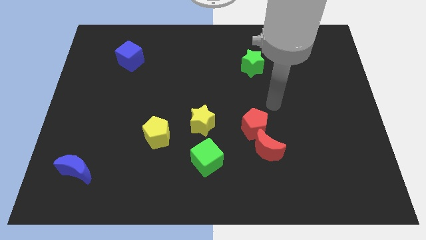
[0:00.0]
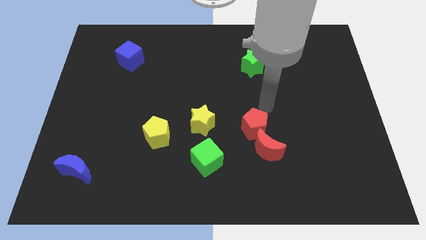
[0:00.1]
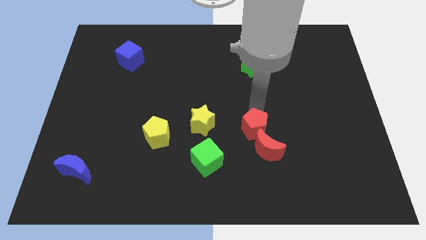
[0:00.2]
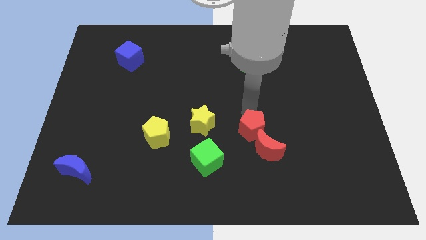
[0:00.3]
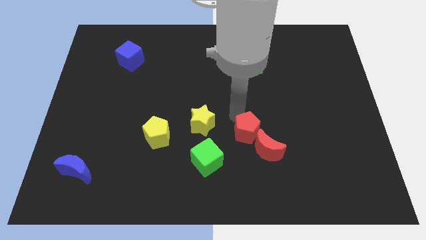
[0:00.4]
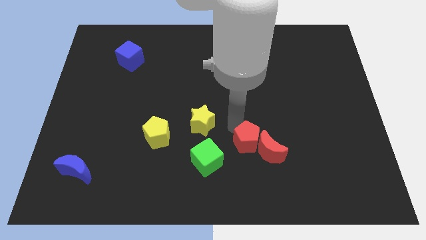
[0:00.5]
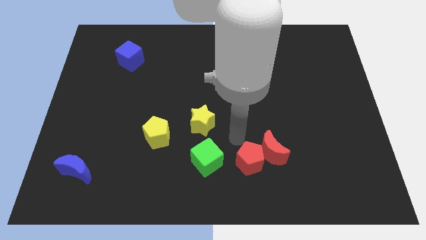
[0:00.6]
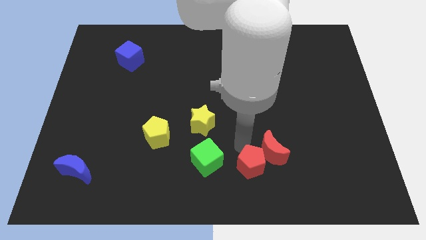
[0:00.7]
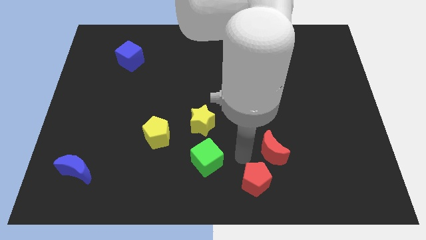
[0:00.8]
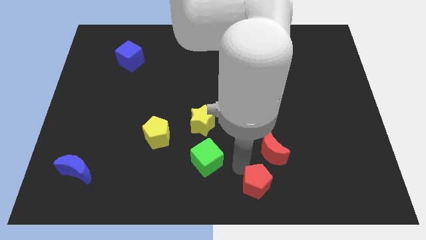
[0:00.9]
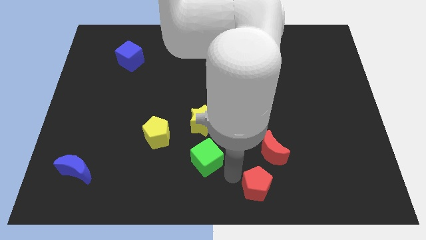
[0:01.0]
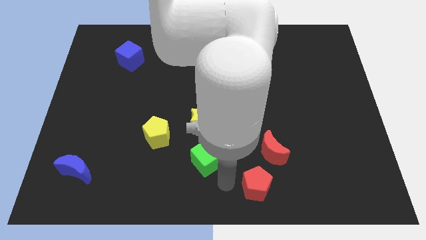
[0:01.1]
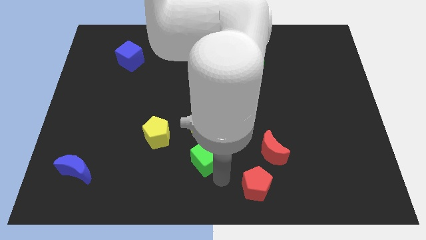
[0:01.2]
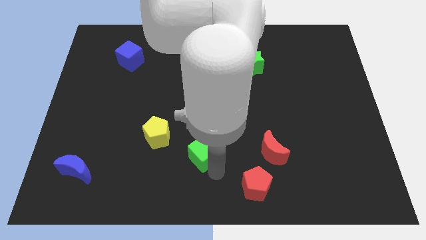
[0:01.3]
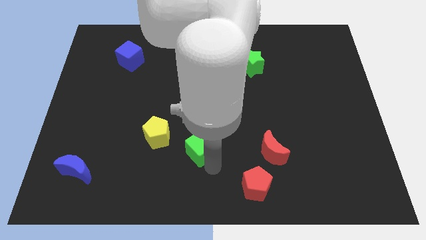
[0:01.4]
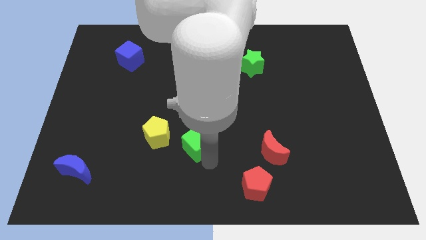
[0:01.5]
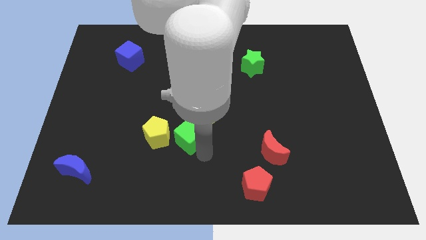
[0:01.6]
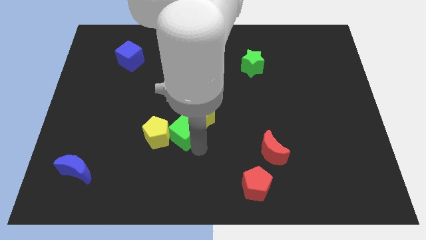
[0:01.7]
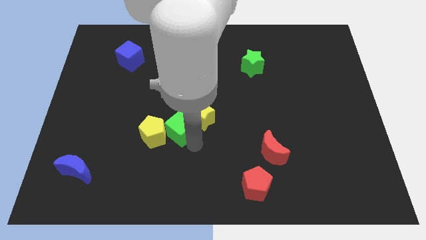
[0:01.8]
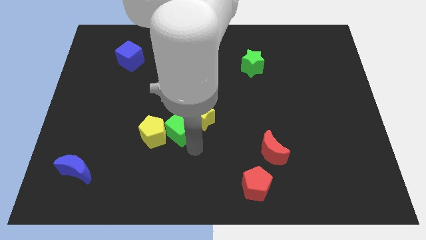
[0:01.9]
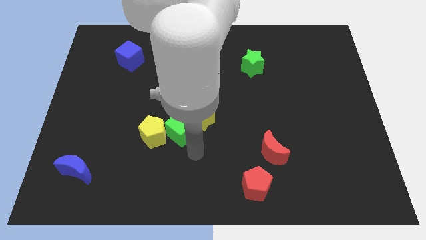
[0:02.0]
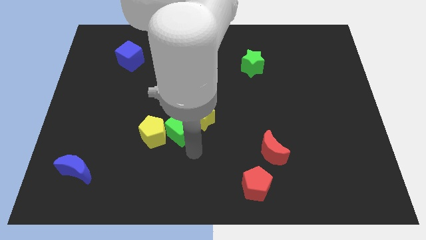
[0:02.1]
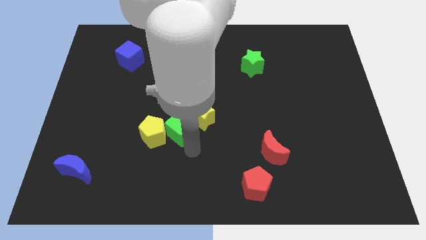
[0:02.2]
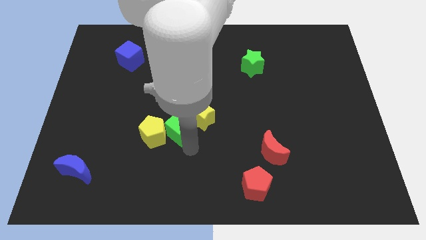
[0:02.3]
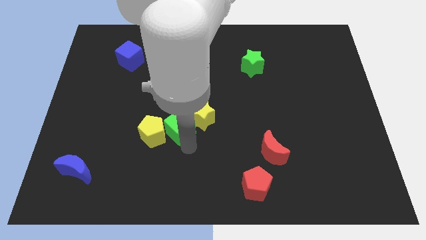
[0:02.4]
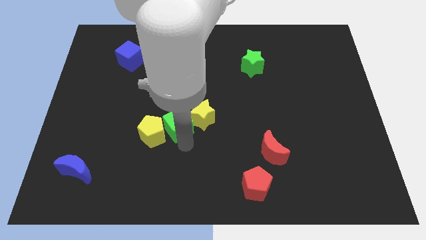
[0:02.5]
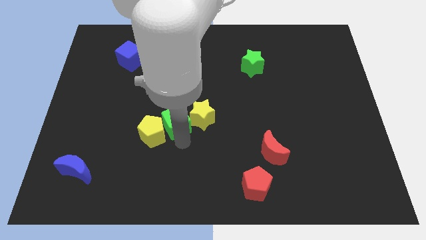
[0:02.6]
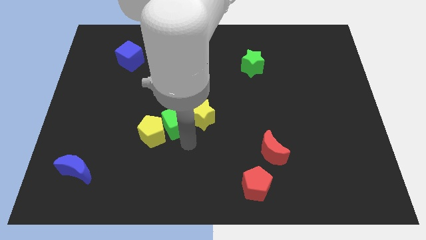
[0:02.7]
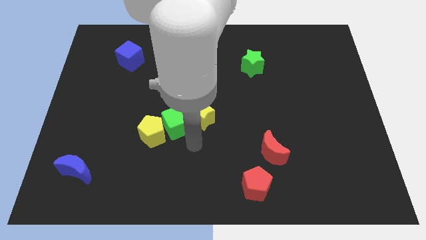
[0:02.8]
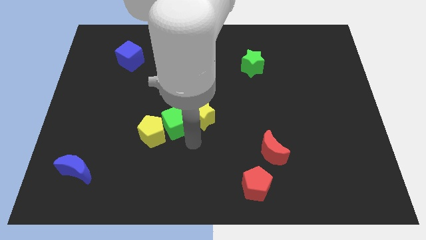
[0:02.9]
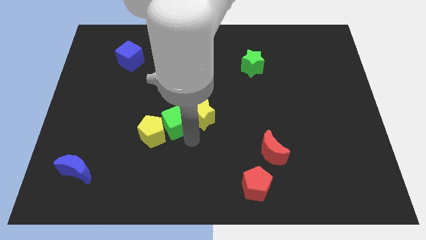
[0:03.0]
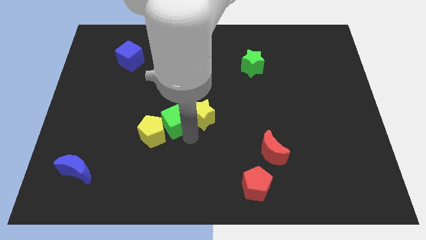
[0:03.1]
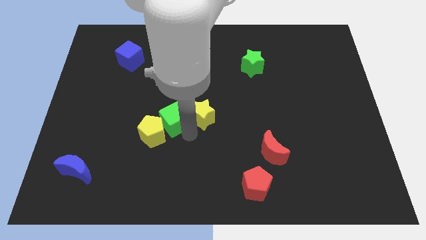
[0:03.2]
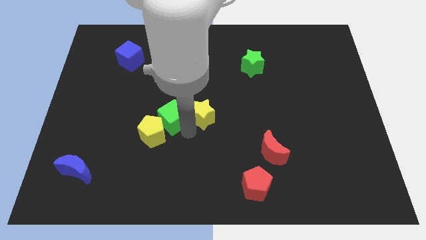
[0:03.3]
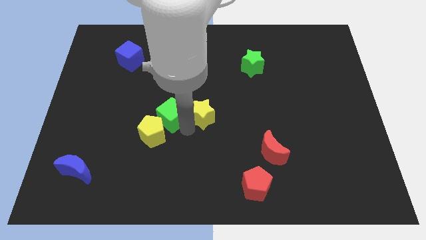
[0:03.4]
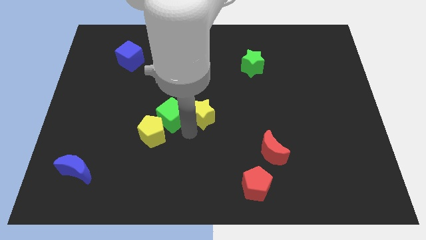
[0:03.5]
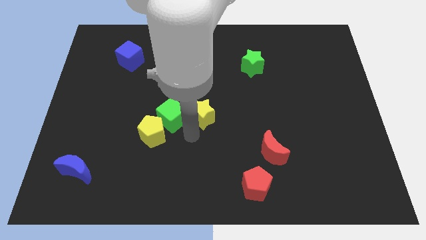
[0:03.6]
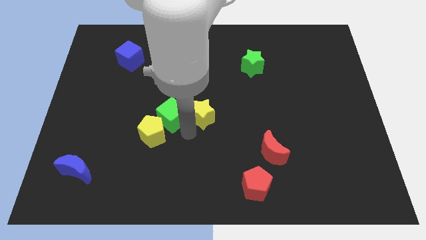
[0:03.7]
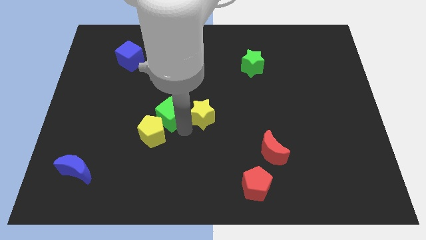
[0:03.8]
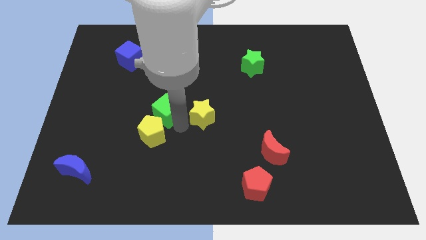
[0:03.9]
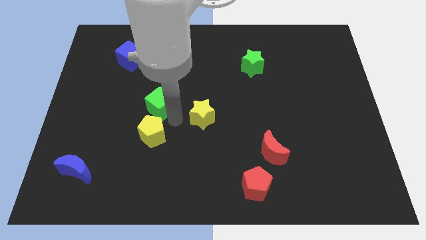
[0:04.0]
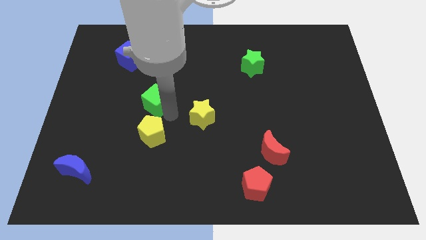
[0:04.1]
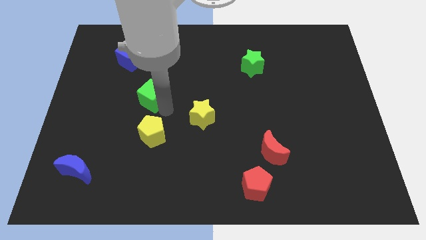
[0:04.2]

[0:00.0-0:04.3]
push the green cube up and left

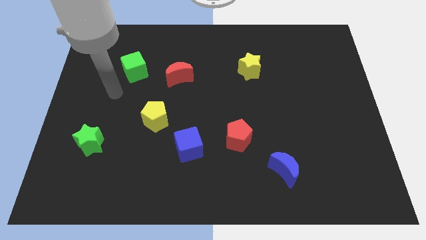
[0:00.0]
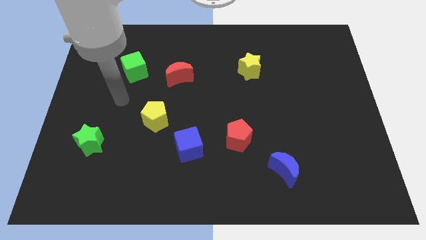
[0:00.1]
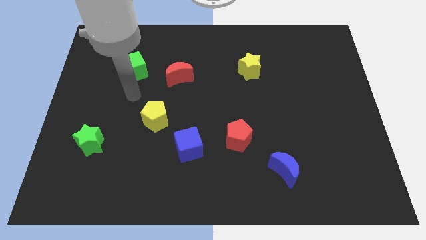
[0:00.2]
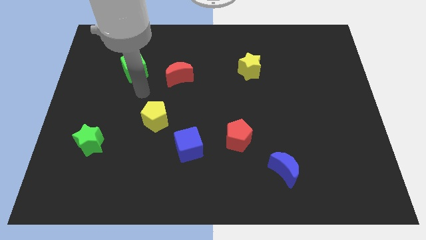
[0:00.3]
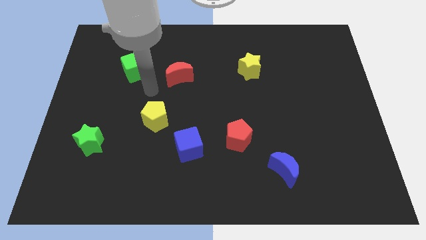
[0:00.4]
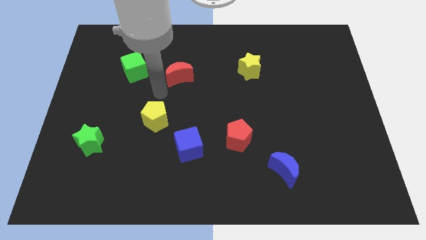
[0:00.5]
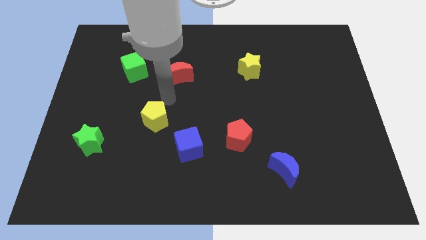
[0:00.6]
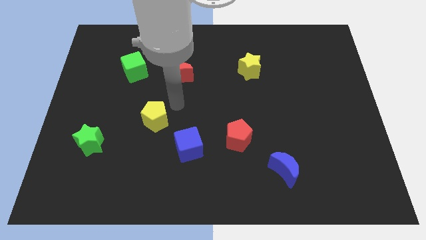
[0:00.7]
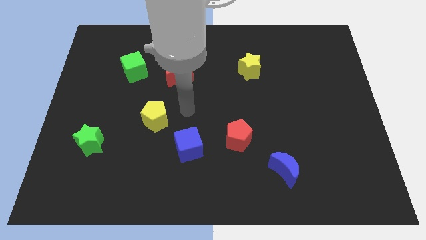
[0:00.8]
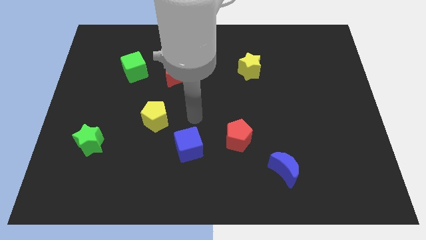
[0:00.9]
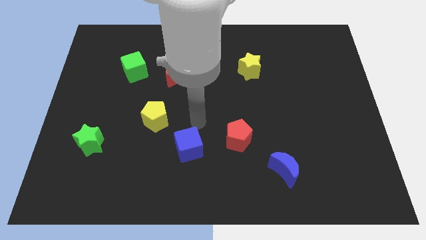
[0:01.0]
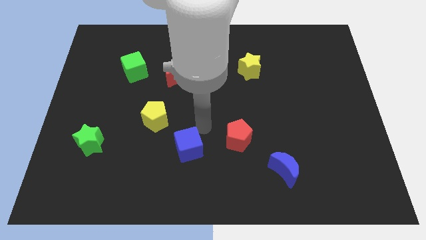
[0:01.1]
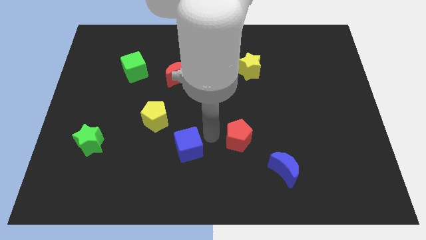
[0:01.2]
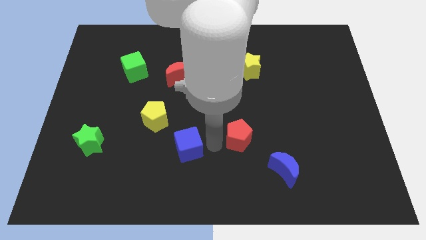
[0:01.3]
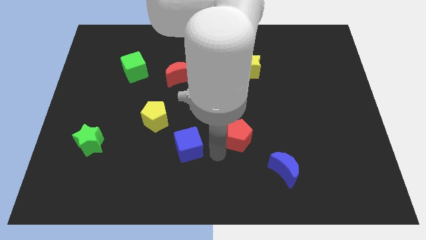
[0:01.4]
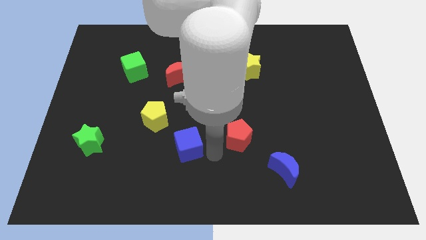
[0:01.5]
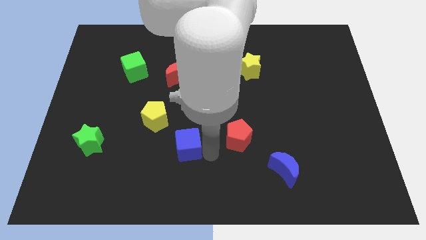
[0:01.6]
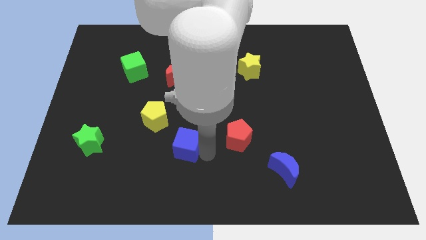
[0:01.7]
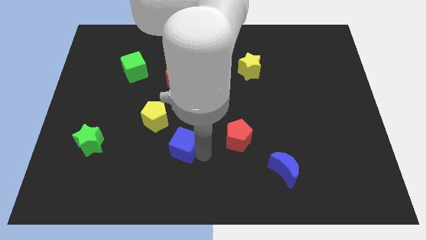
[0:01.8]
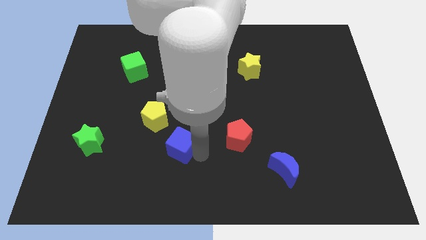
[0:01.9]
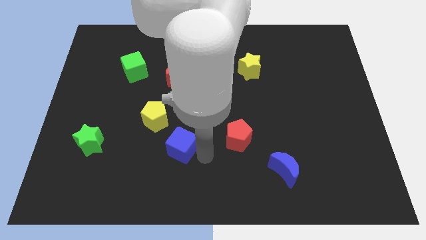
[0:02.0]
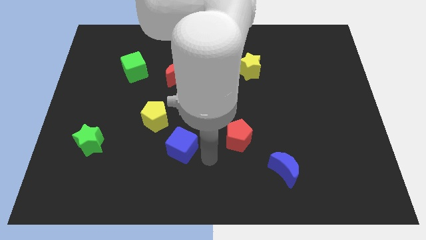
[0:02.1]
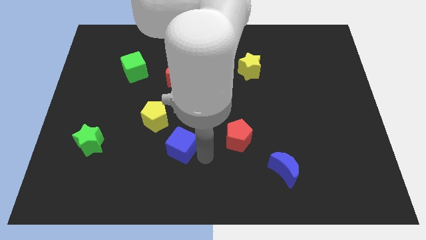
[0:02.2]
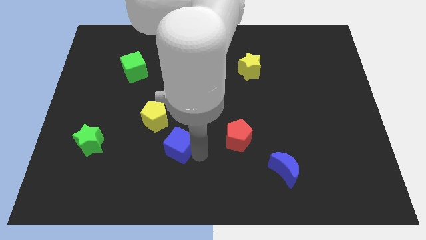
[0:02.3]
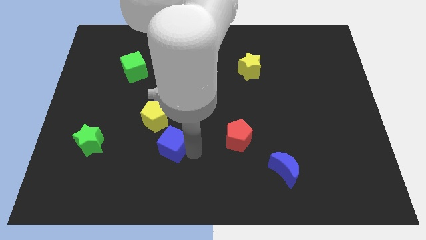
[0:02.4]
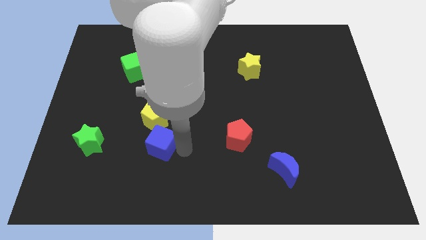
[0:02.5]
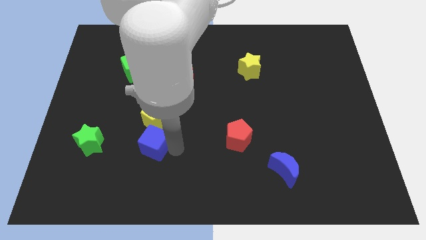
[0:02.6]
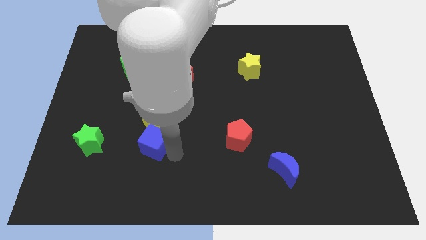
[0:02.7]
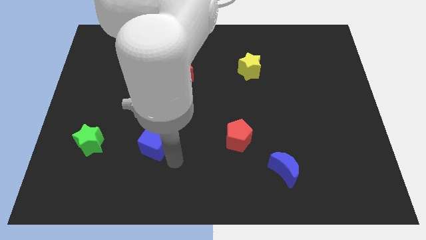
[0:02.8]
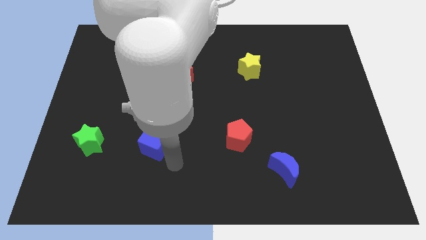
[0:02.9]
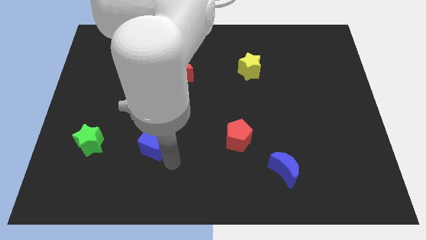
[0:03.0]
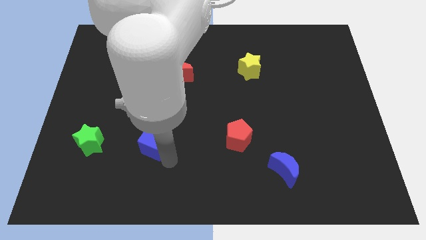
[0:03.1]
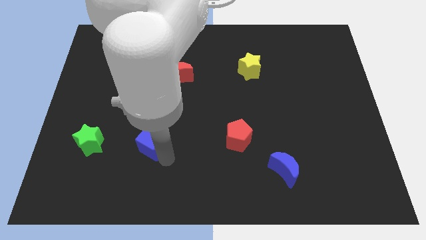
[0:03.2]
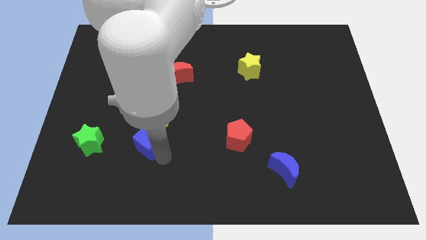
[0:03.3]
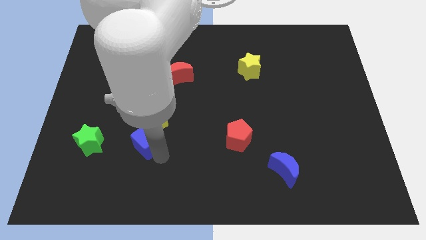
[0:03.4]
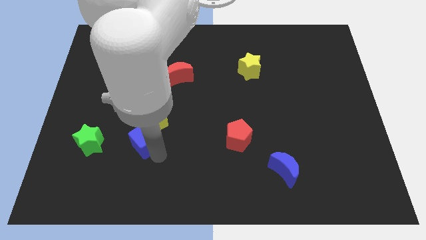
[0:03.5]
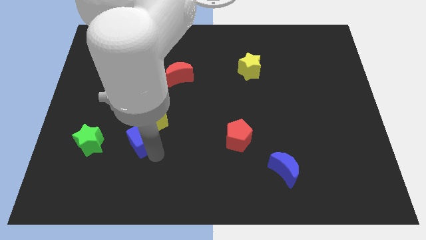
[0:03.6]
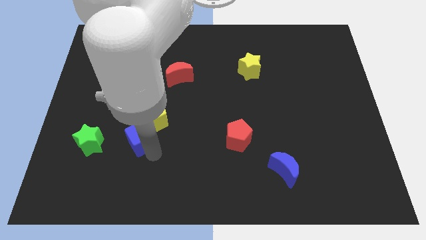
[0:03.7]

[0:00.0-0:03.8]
push the blue cube slightly upwards and then left

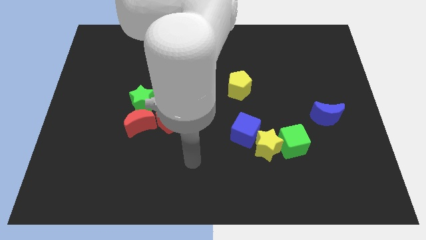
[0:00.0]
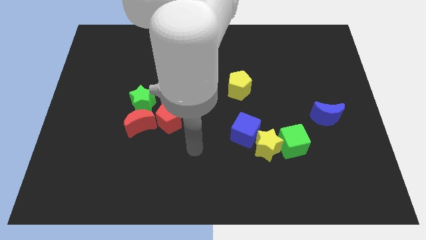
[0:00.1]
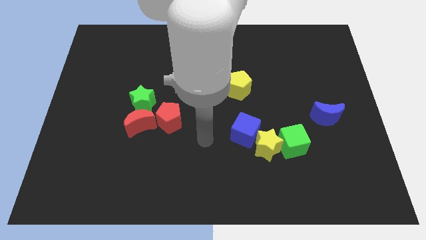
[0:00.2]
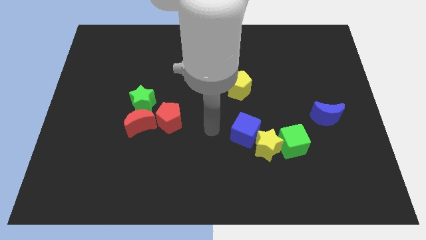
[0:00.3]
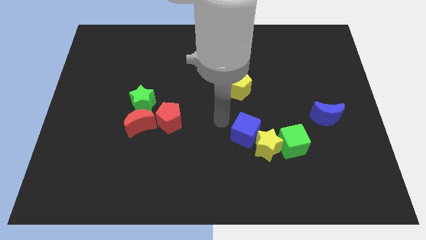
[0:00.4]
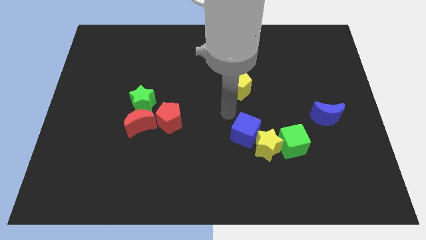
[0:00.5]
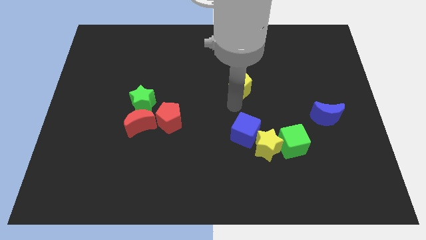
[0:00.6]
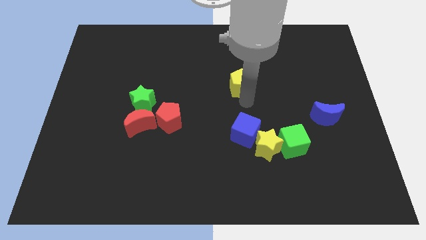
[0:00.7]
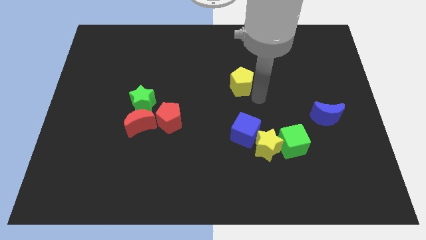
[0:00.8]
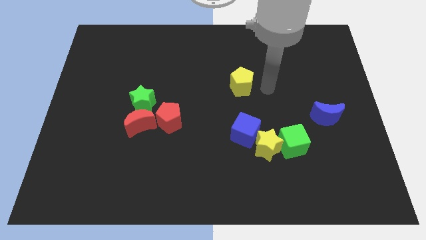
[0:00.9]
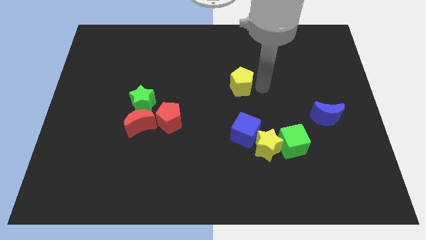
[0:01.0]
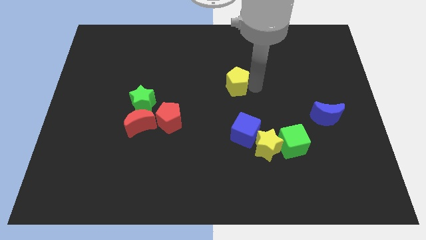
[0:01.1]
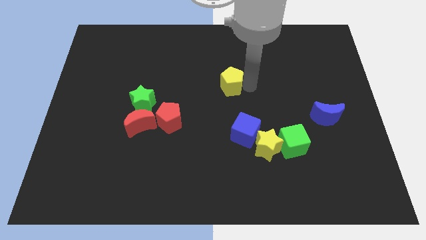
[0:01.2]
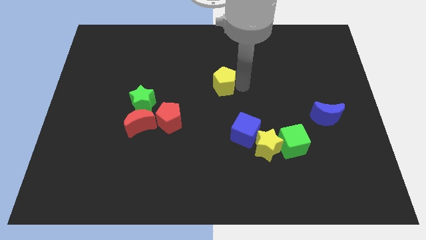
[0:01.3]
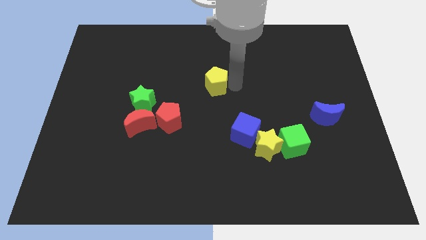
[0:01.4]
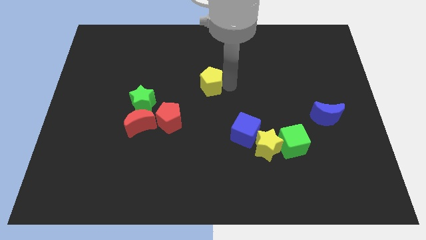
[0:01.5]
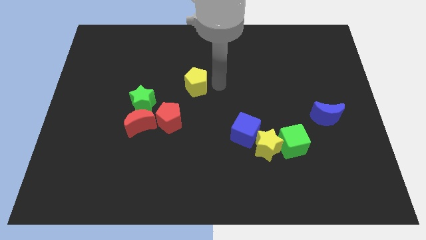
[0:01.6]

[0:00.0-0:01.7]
slightly slide the yellow pentagon left
